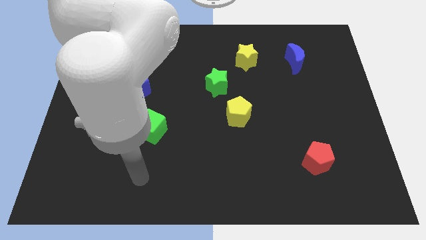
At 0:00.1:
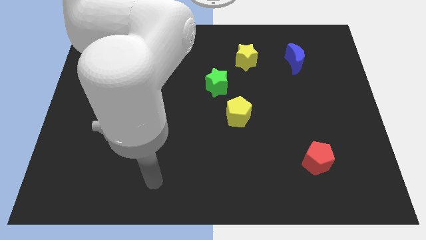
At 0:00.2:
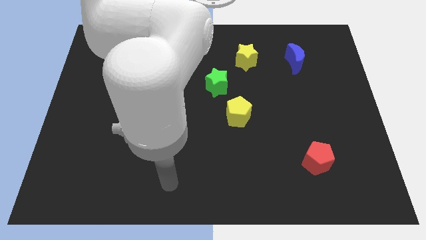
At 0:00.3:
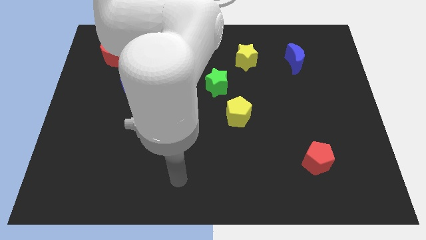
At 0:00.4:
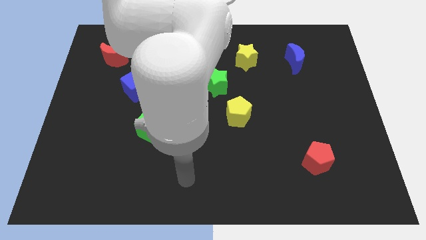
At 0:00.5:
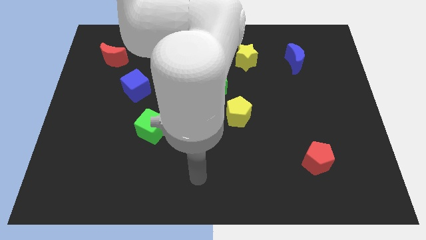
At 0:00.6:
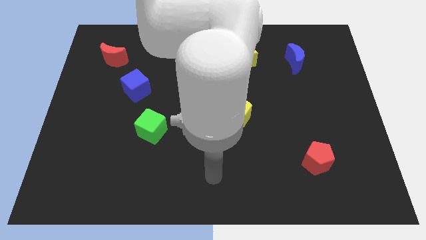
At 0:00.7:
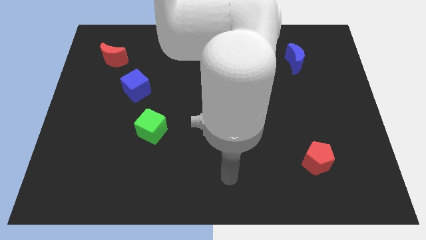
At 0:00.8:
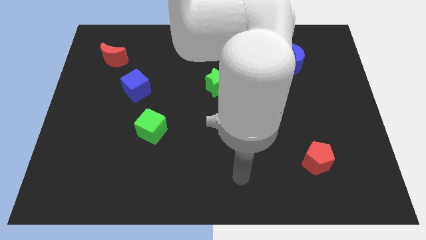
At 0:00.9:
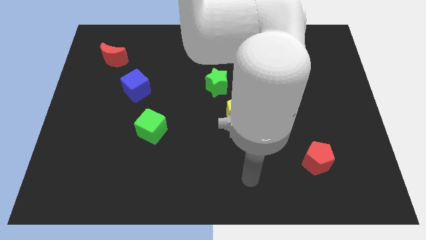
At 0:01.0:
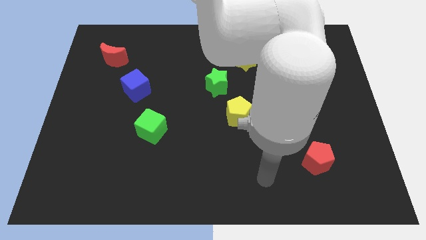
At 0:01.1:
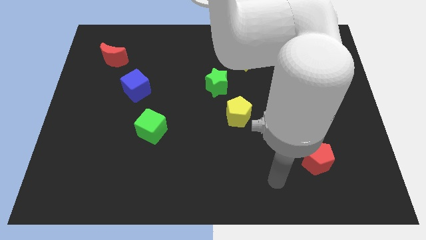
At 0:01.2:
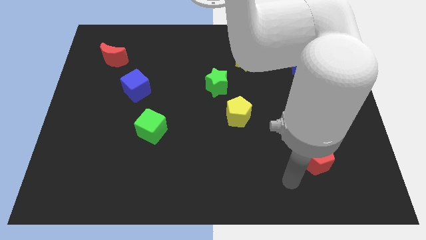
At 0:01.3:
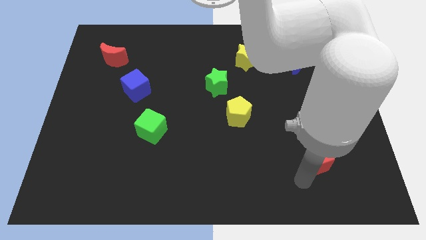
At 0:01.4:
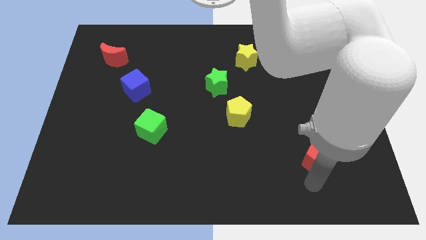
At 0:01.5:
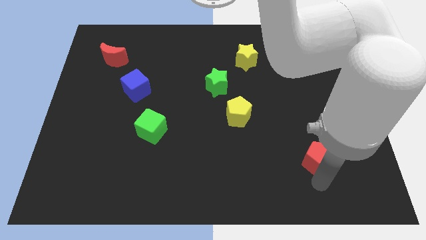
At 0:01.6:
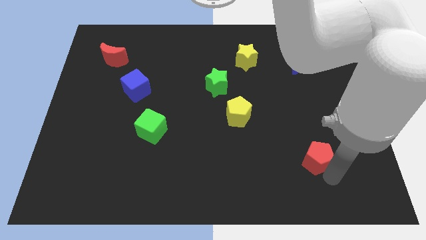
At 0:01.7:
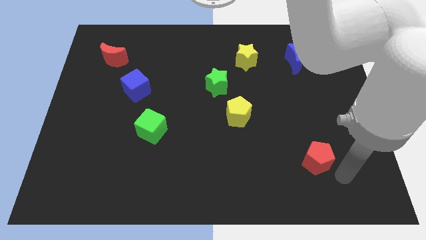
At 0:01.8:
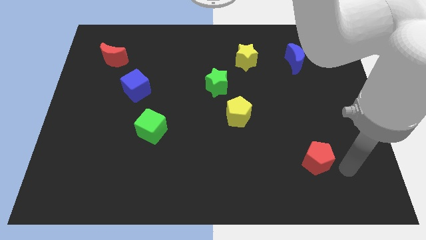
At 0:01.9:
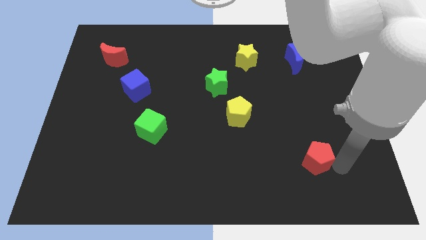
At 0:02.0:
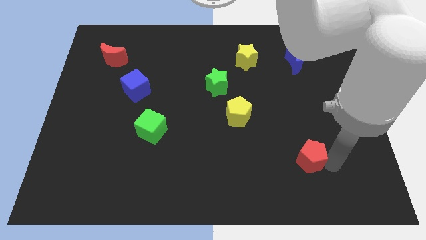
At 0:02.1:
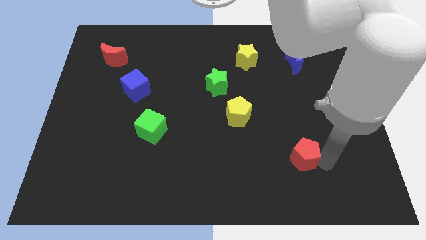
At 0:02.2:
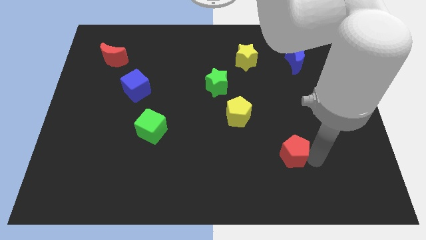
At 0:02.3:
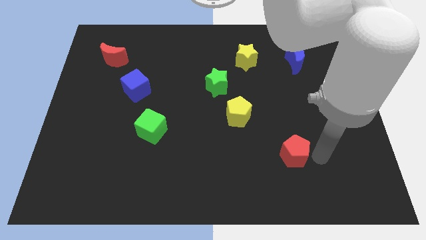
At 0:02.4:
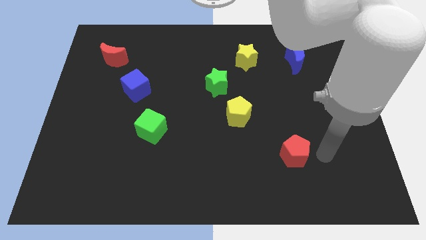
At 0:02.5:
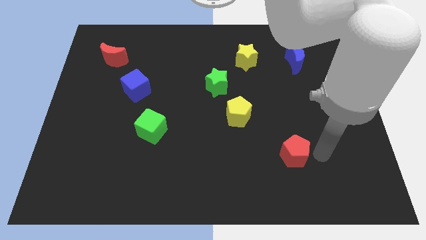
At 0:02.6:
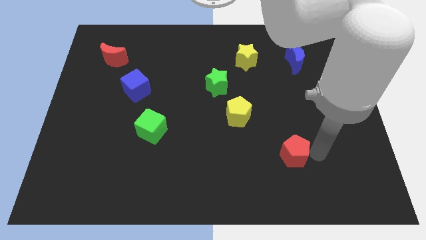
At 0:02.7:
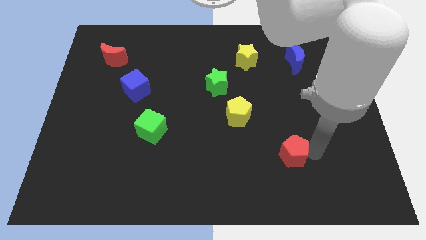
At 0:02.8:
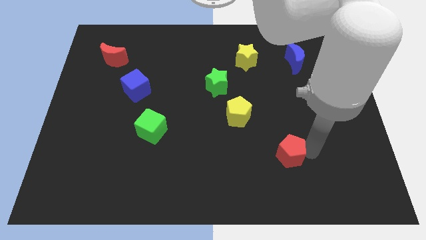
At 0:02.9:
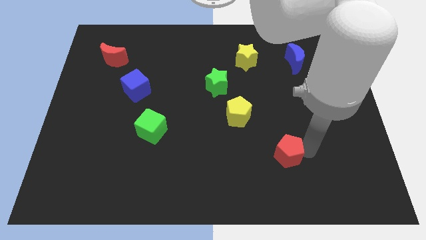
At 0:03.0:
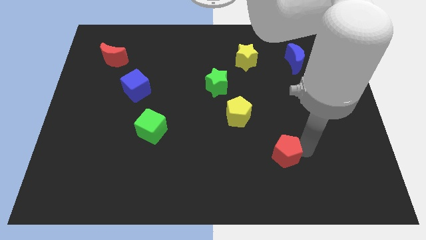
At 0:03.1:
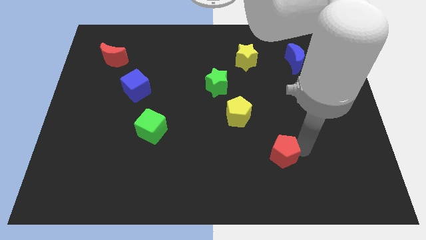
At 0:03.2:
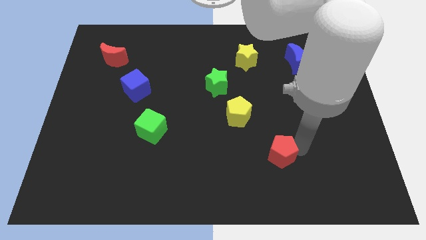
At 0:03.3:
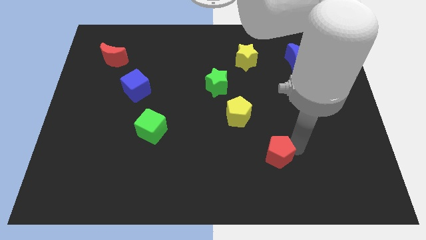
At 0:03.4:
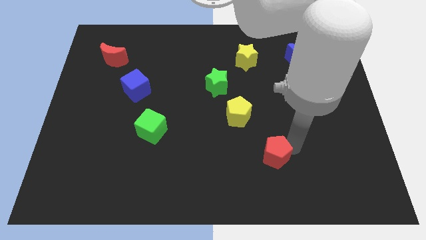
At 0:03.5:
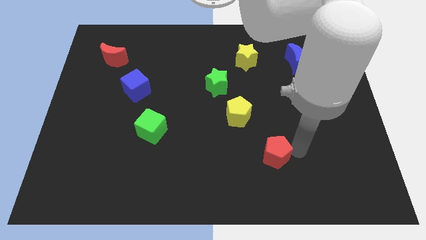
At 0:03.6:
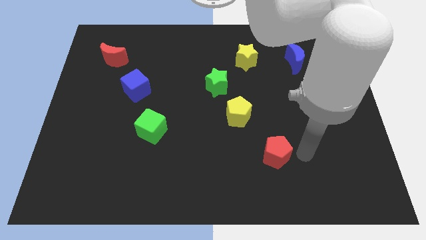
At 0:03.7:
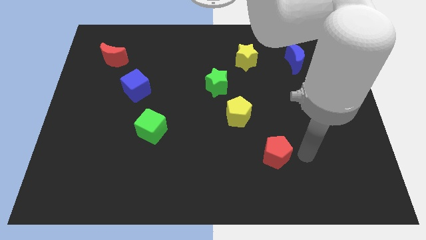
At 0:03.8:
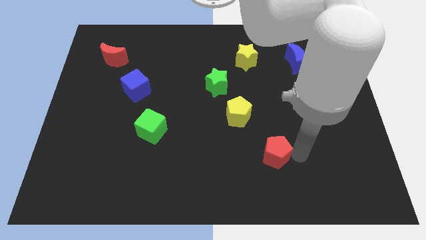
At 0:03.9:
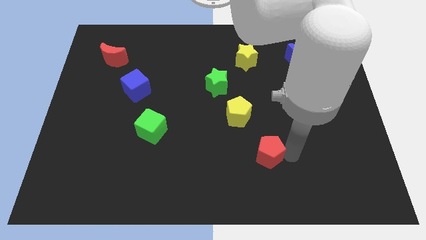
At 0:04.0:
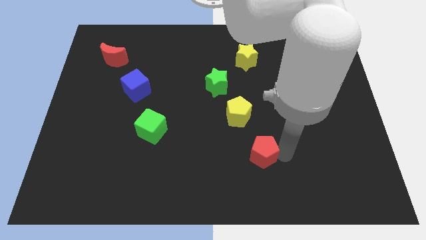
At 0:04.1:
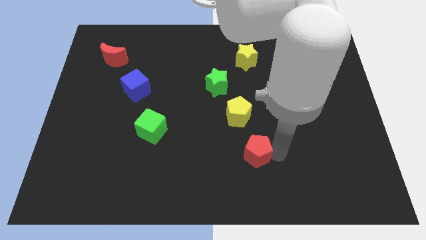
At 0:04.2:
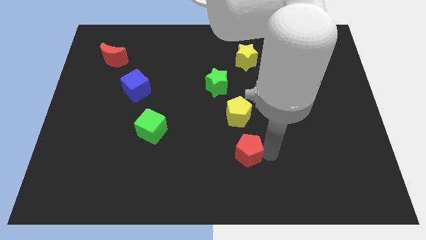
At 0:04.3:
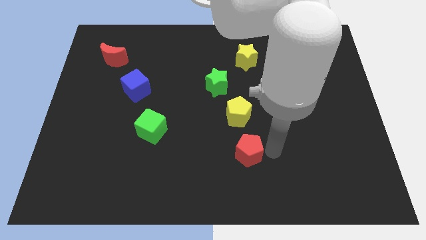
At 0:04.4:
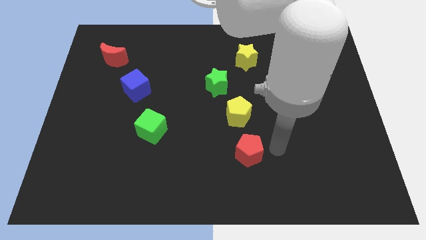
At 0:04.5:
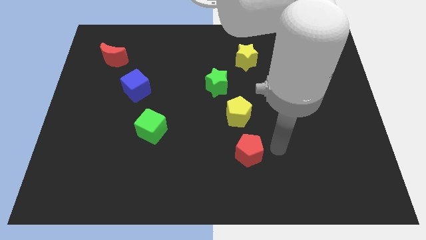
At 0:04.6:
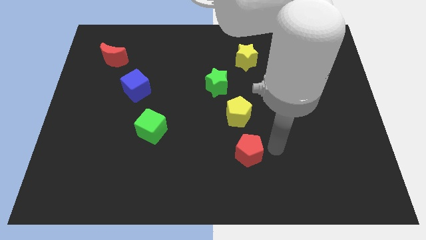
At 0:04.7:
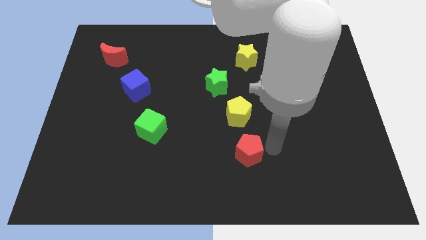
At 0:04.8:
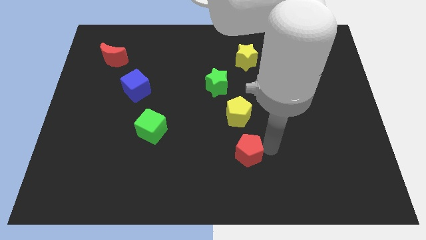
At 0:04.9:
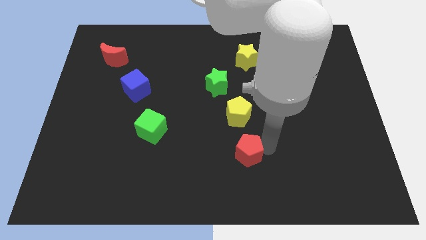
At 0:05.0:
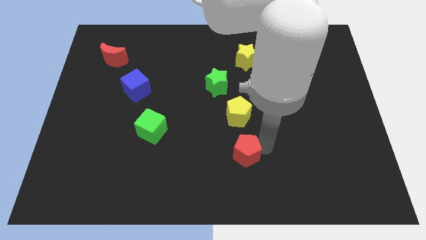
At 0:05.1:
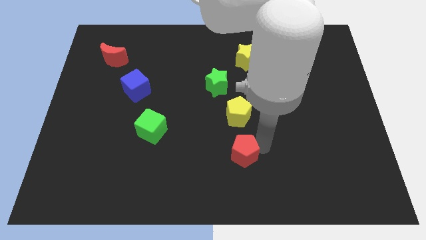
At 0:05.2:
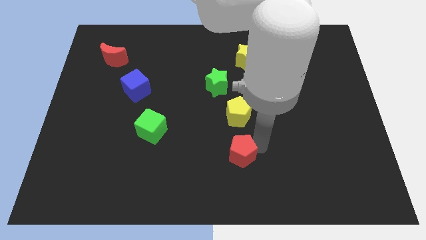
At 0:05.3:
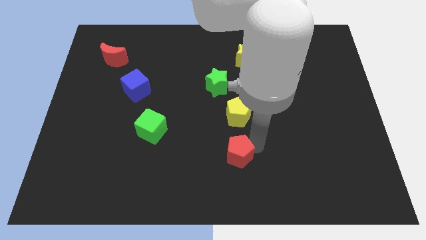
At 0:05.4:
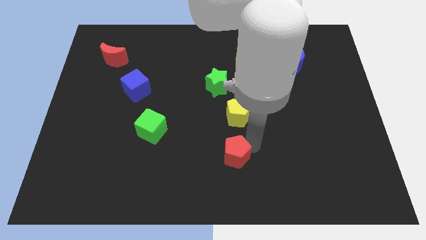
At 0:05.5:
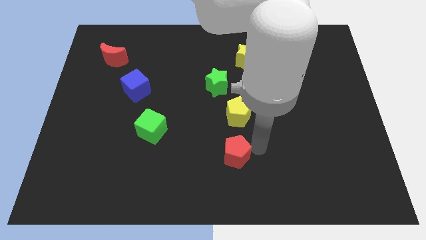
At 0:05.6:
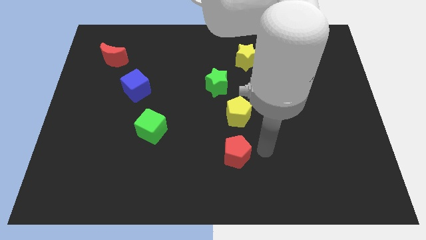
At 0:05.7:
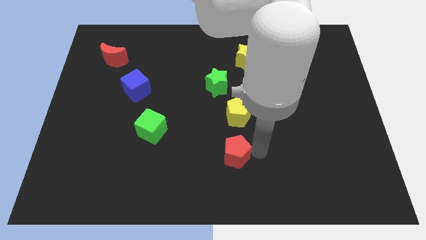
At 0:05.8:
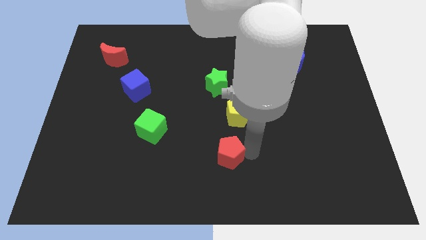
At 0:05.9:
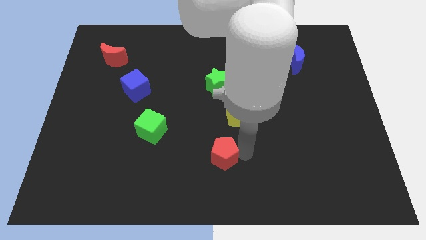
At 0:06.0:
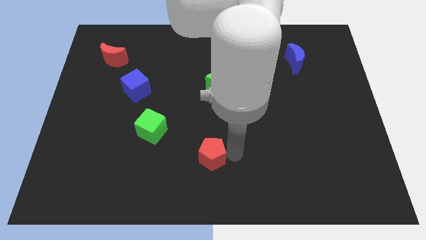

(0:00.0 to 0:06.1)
push the red pentagon left

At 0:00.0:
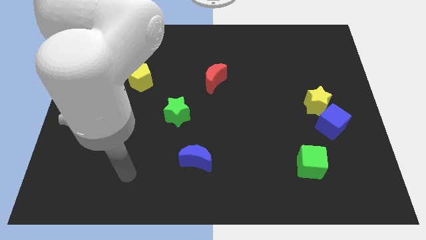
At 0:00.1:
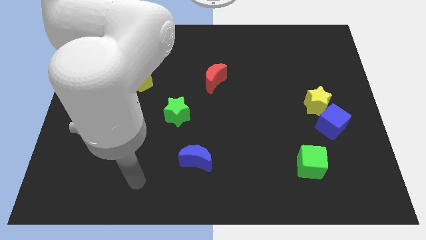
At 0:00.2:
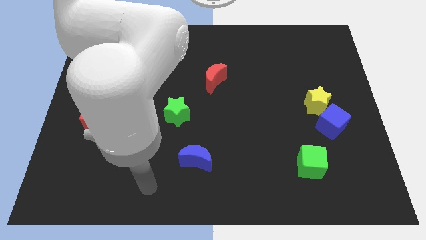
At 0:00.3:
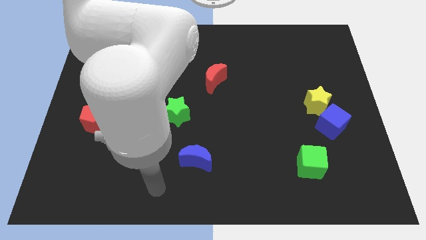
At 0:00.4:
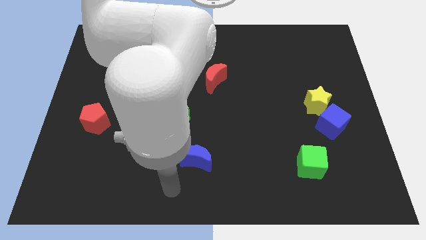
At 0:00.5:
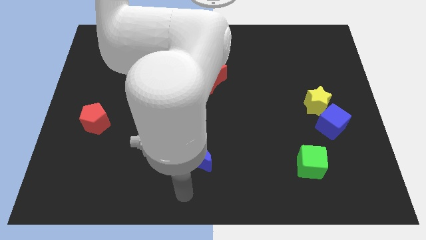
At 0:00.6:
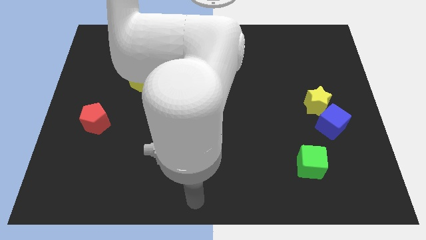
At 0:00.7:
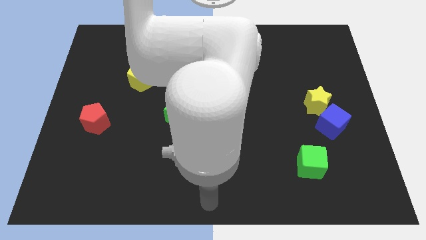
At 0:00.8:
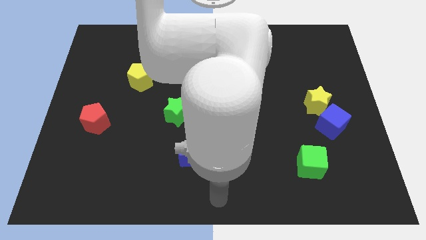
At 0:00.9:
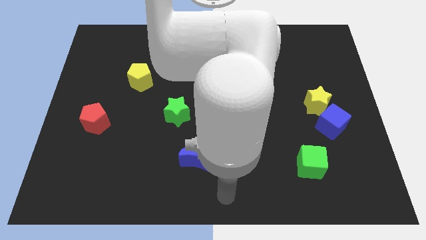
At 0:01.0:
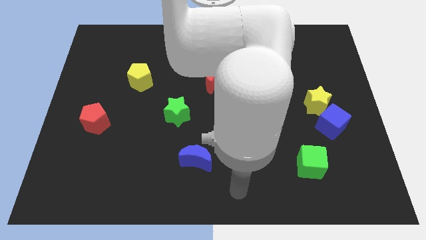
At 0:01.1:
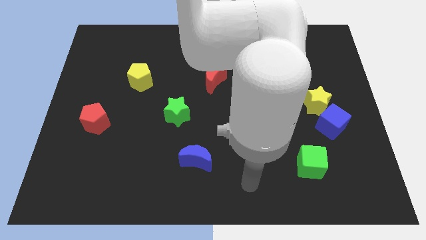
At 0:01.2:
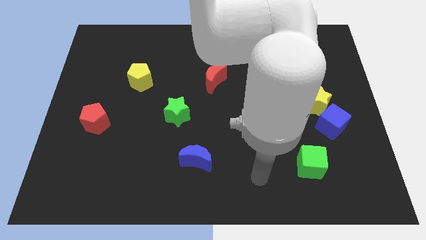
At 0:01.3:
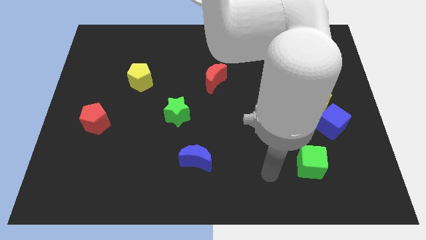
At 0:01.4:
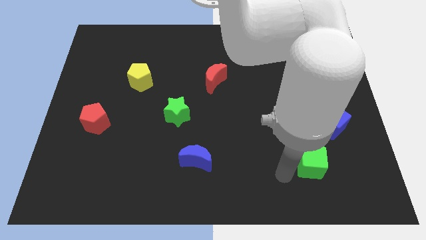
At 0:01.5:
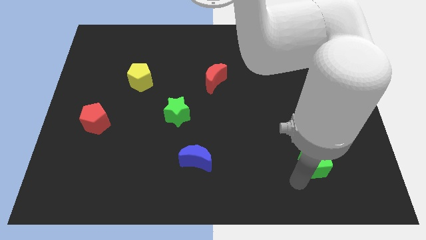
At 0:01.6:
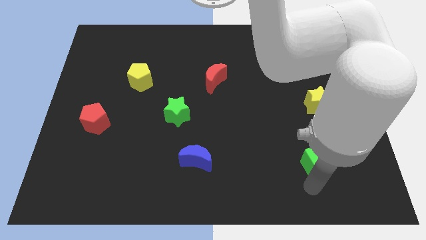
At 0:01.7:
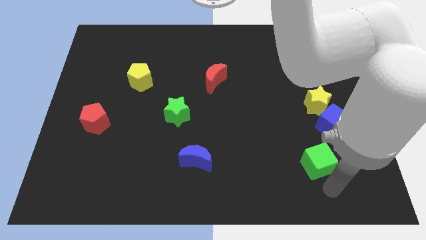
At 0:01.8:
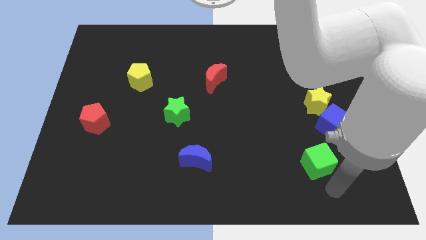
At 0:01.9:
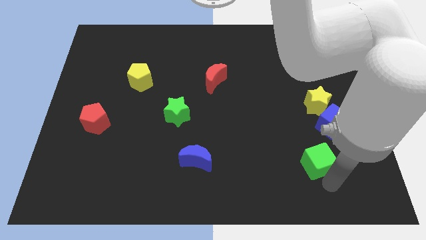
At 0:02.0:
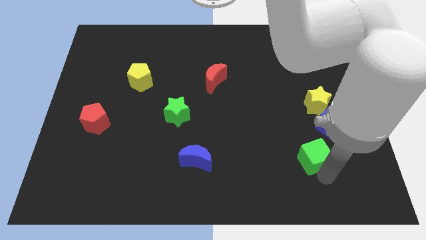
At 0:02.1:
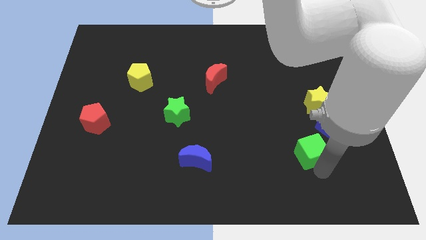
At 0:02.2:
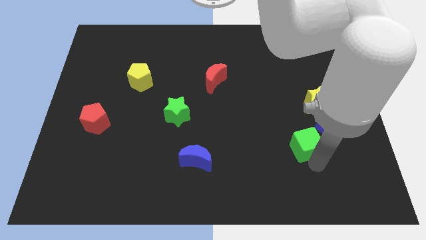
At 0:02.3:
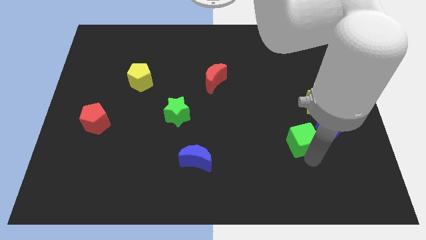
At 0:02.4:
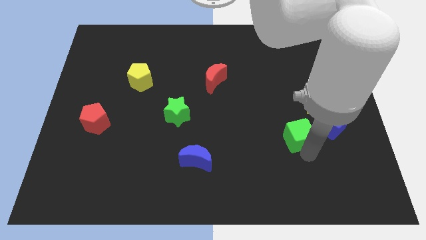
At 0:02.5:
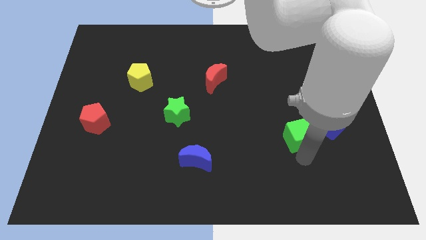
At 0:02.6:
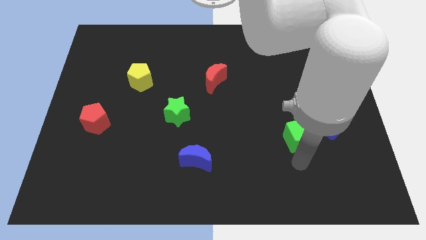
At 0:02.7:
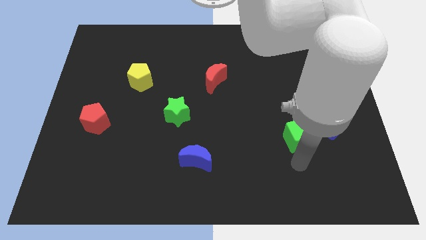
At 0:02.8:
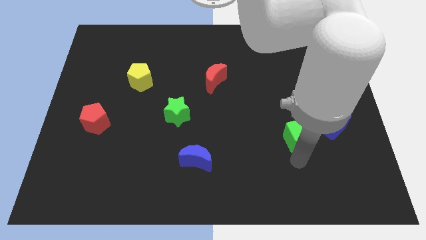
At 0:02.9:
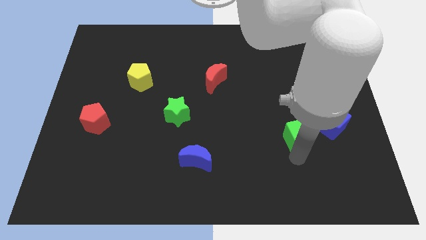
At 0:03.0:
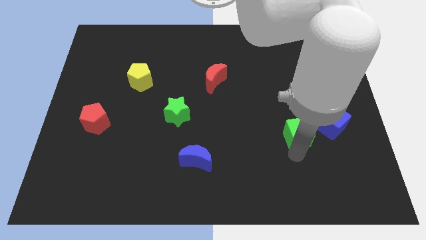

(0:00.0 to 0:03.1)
slide the green cube slightly up
